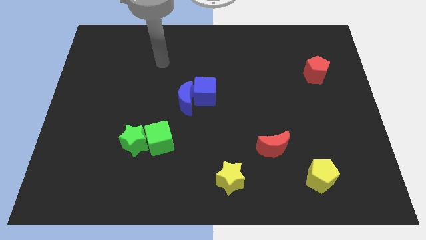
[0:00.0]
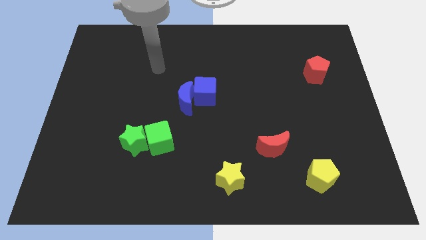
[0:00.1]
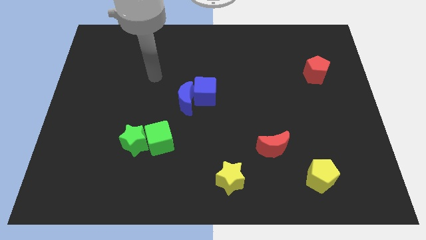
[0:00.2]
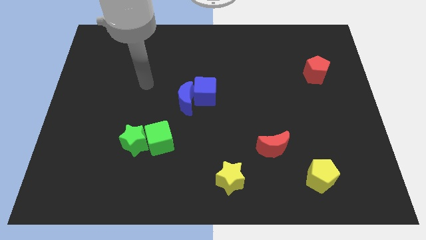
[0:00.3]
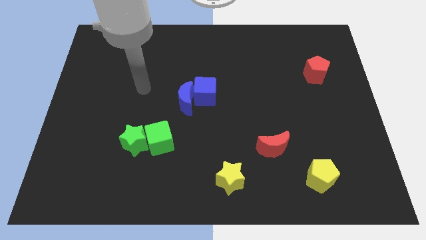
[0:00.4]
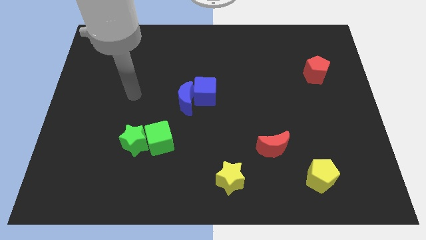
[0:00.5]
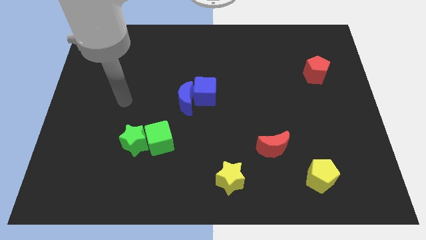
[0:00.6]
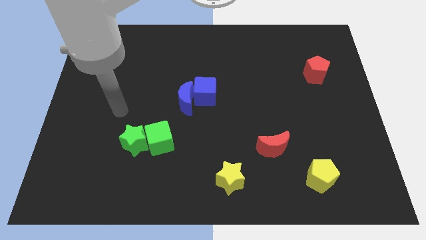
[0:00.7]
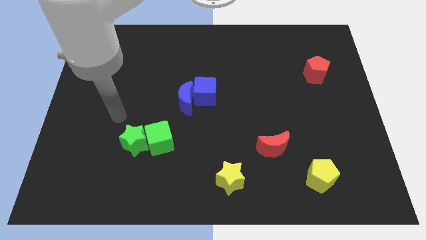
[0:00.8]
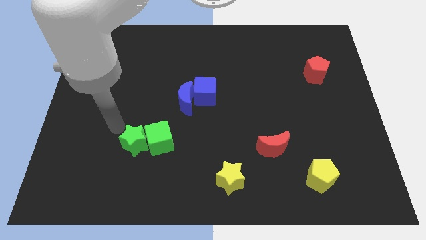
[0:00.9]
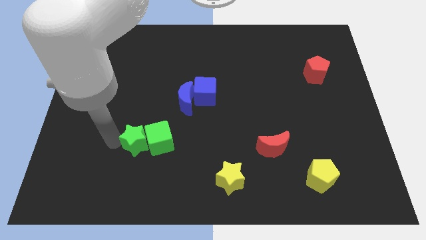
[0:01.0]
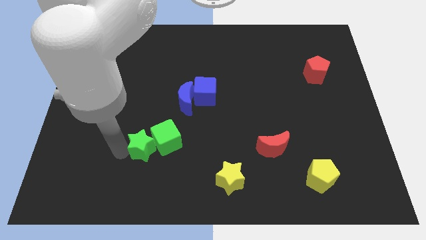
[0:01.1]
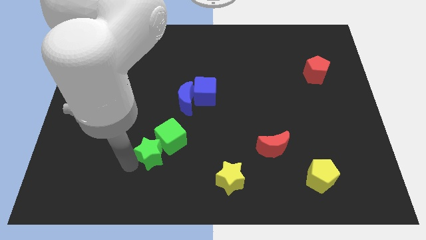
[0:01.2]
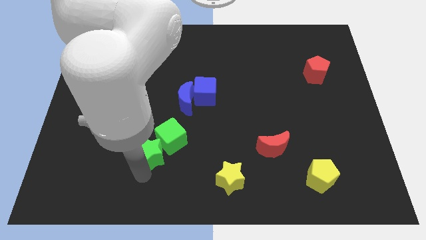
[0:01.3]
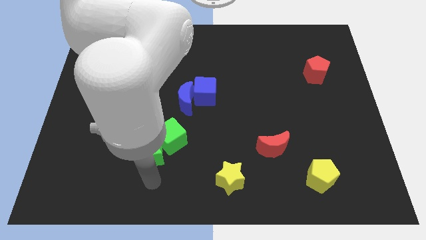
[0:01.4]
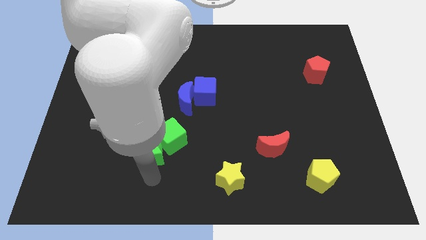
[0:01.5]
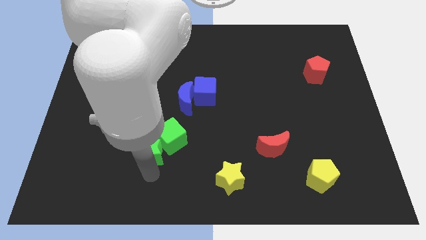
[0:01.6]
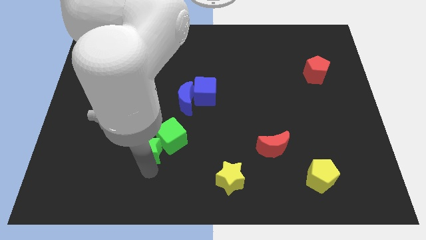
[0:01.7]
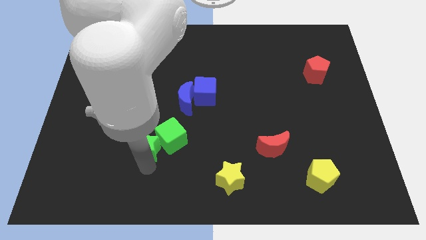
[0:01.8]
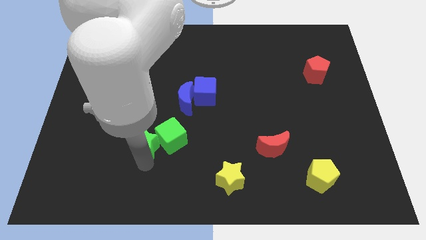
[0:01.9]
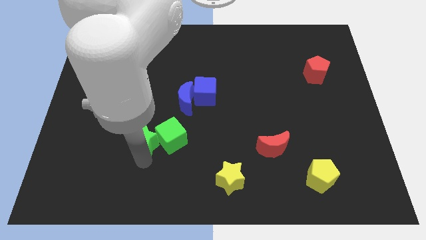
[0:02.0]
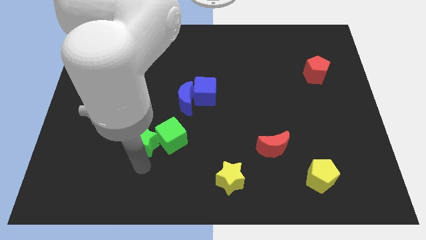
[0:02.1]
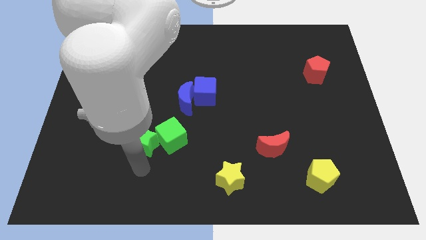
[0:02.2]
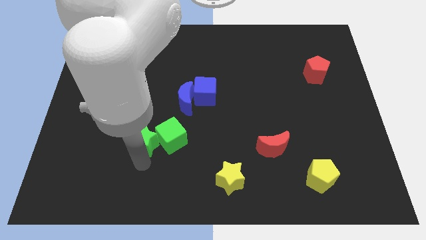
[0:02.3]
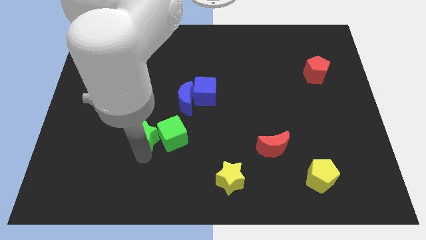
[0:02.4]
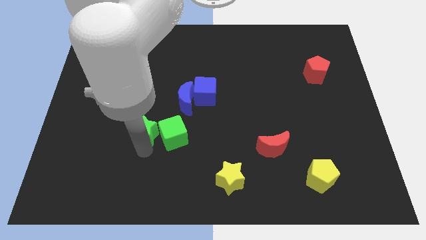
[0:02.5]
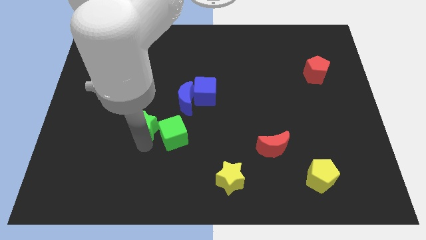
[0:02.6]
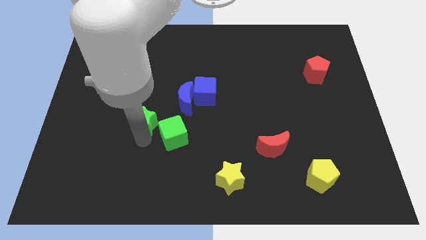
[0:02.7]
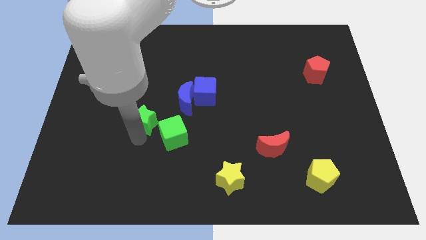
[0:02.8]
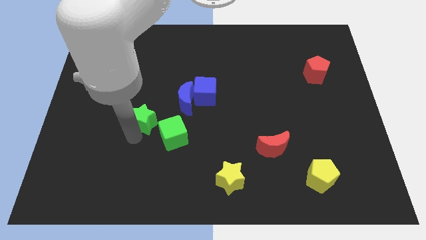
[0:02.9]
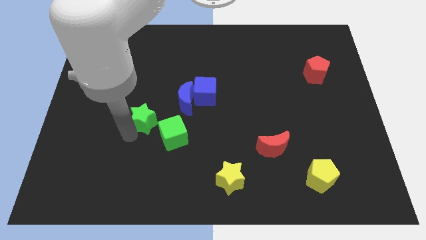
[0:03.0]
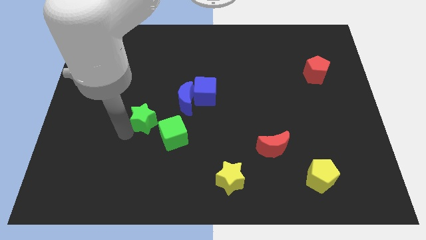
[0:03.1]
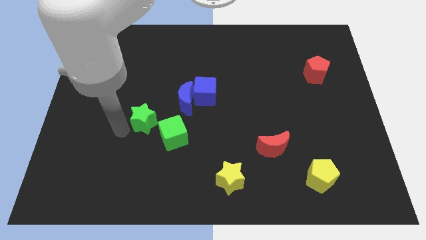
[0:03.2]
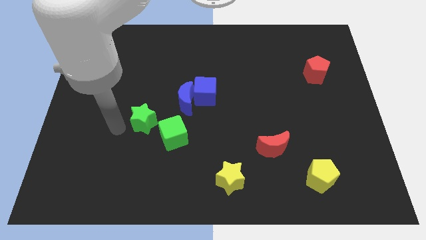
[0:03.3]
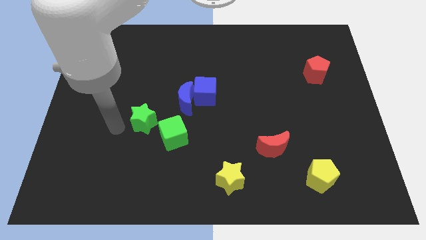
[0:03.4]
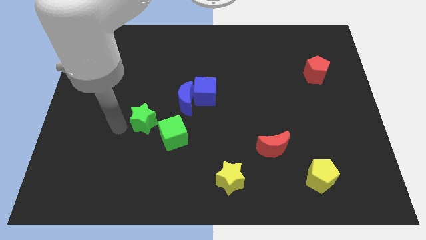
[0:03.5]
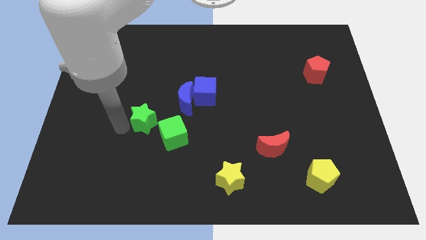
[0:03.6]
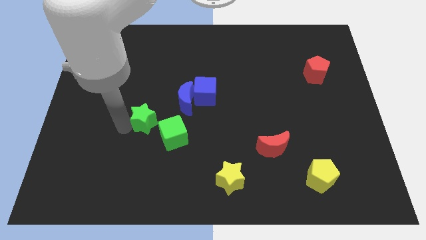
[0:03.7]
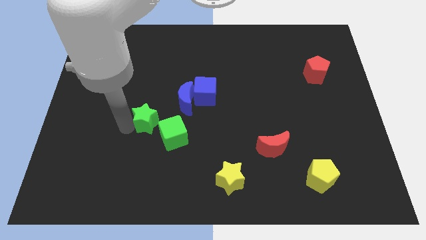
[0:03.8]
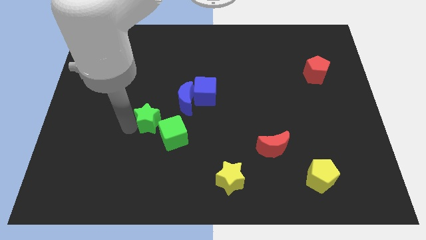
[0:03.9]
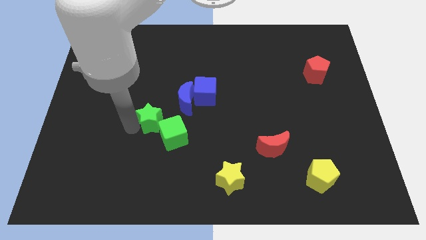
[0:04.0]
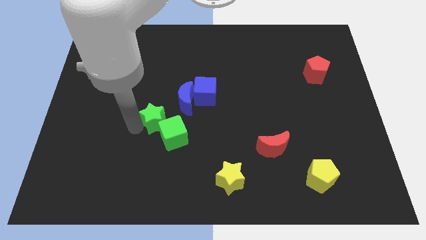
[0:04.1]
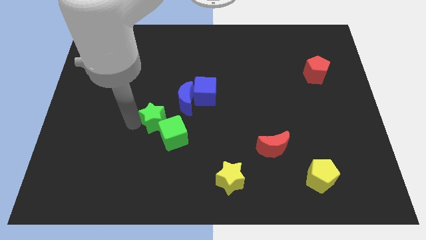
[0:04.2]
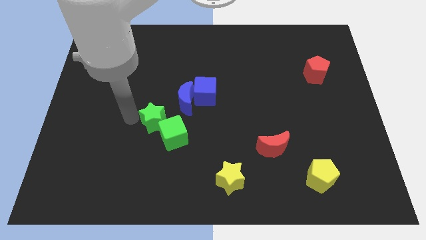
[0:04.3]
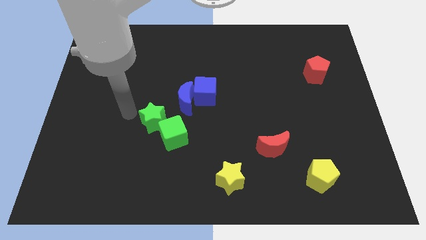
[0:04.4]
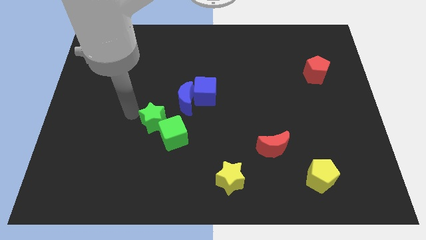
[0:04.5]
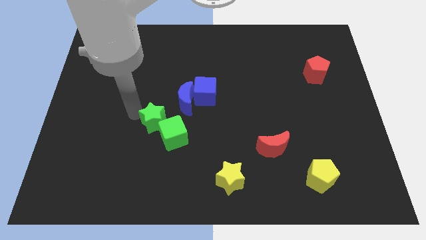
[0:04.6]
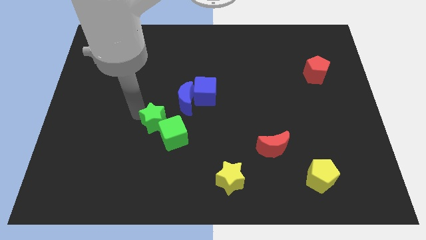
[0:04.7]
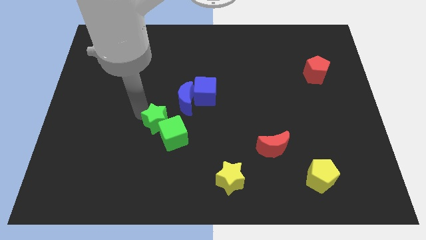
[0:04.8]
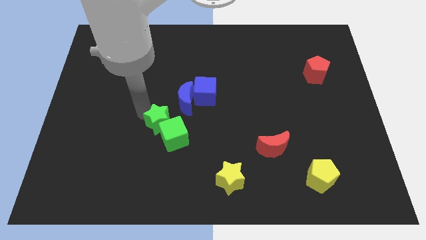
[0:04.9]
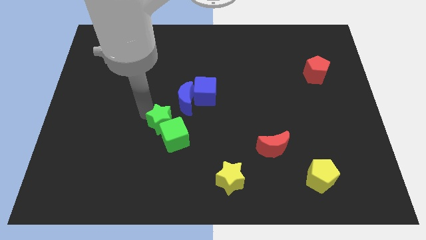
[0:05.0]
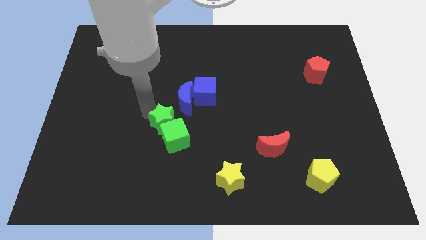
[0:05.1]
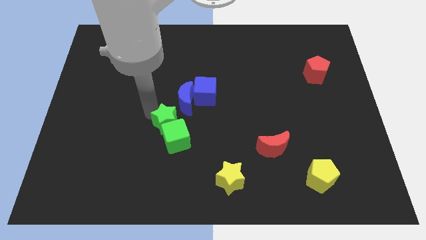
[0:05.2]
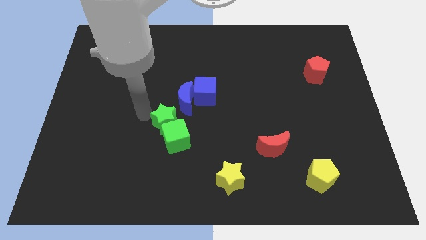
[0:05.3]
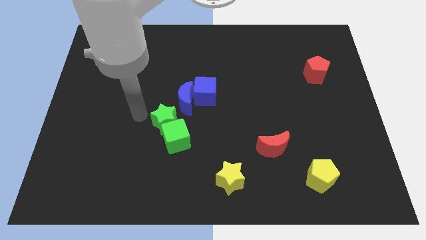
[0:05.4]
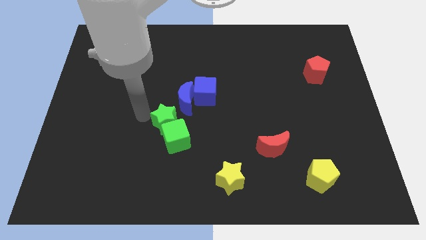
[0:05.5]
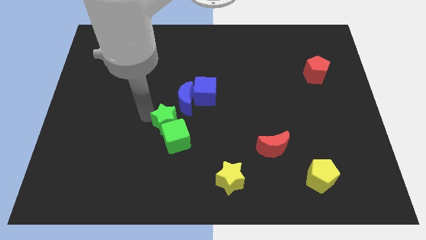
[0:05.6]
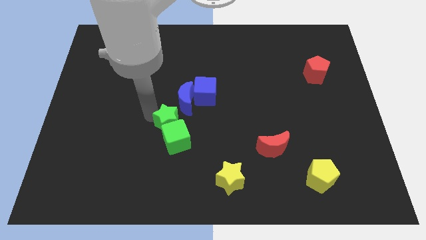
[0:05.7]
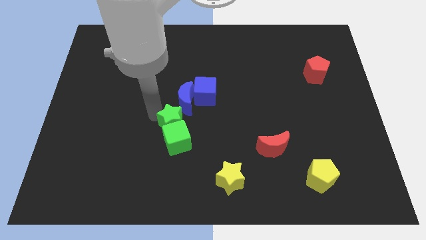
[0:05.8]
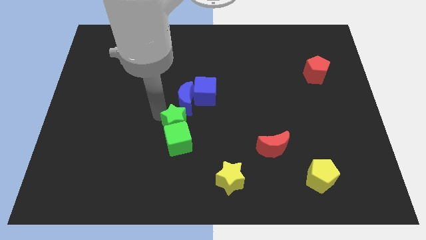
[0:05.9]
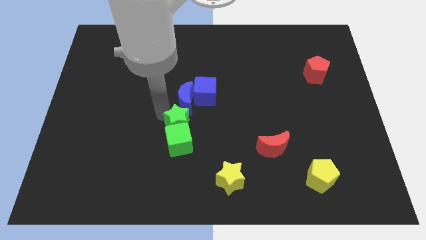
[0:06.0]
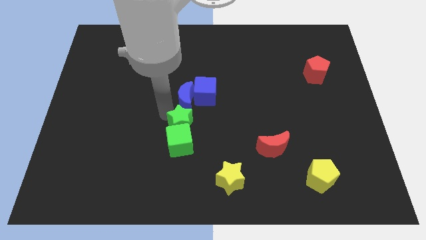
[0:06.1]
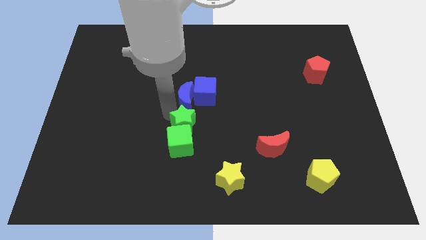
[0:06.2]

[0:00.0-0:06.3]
move the green star to the bottom side of the blue cube
